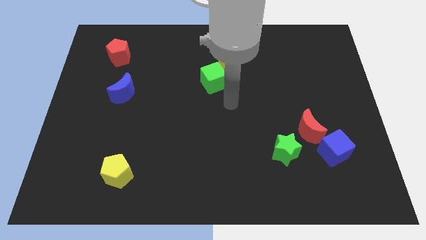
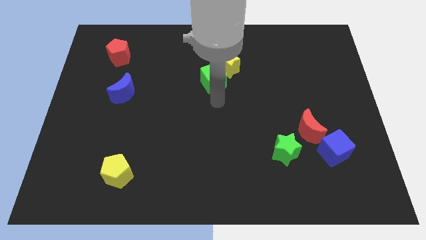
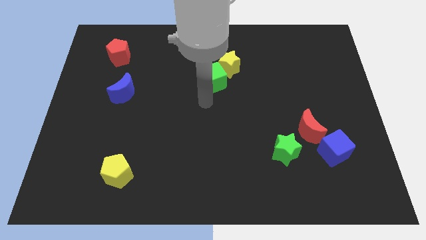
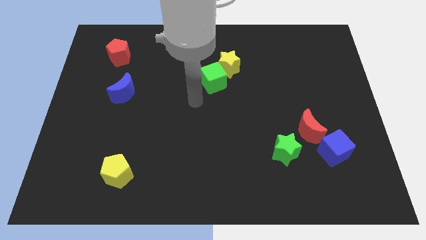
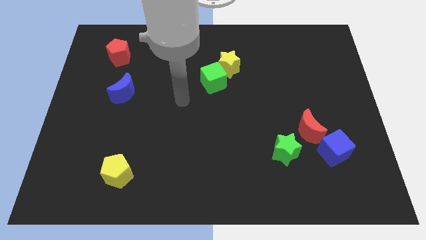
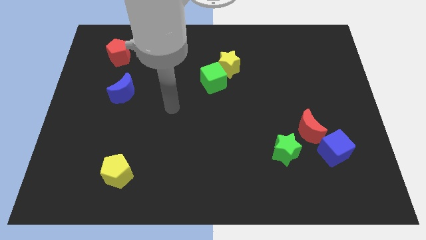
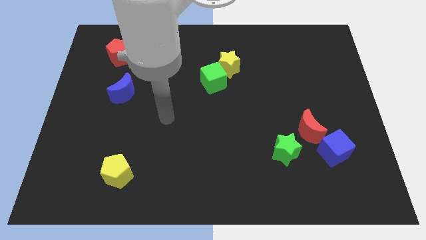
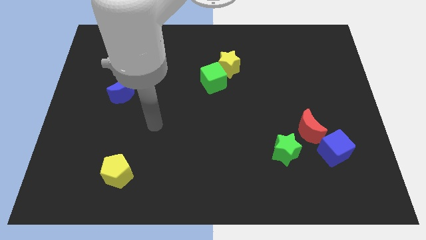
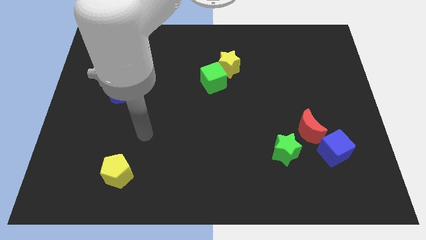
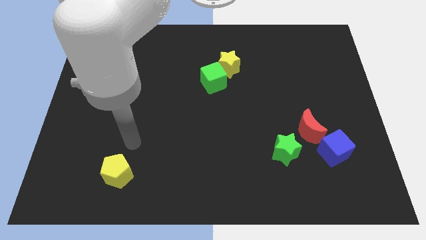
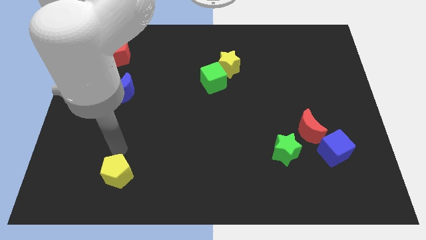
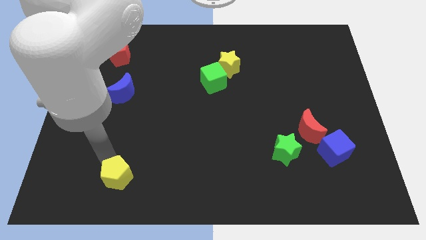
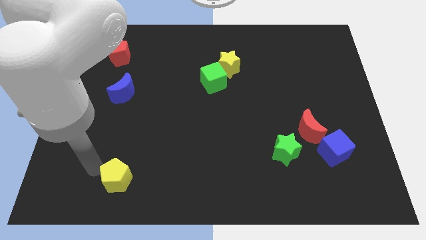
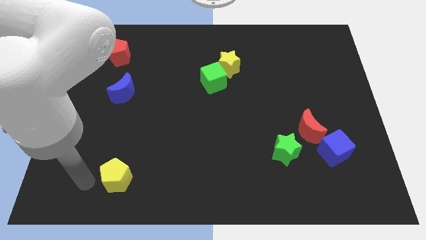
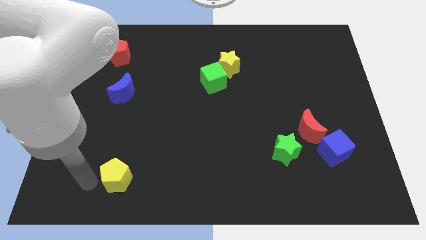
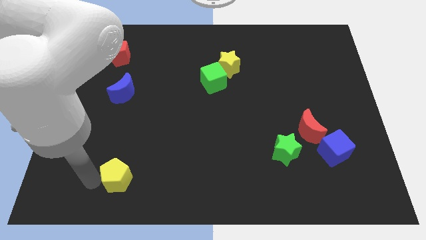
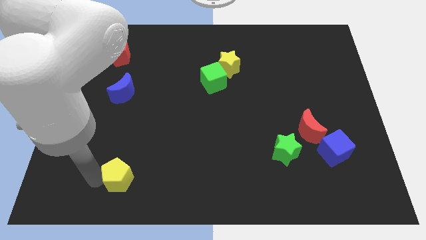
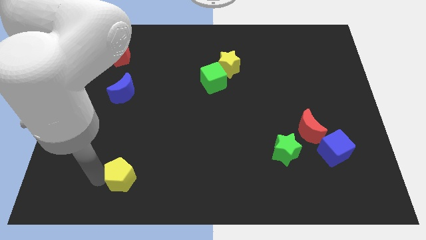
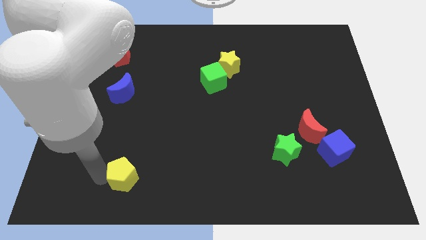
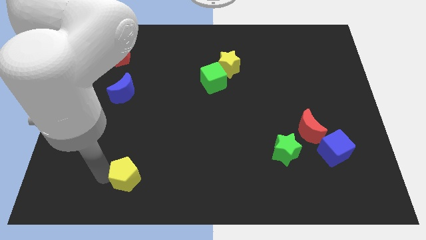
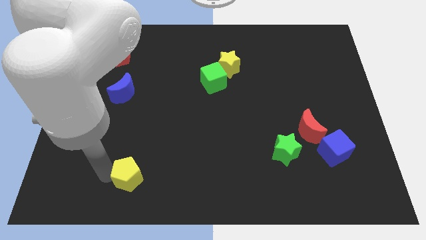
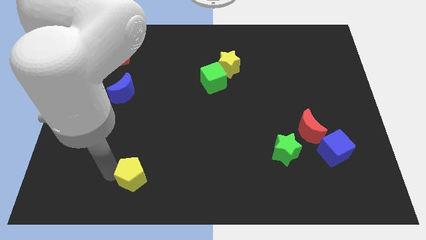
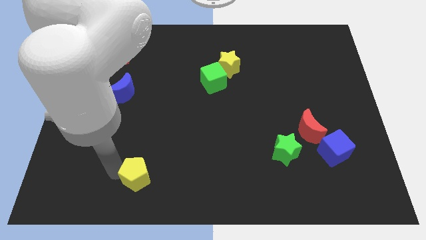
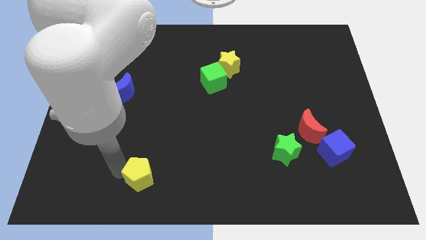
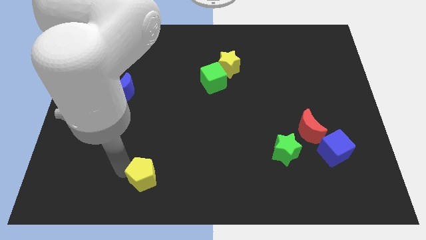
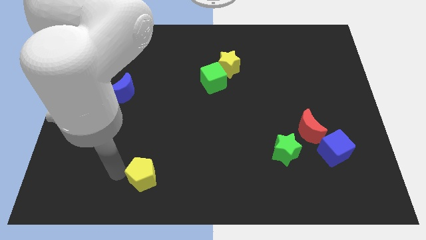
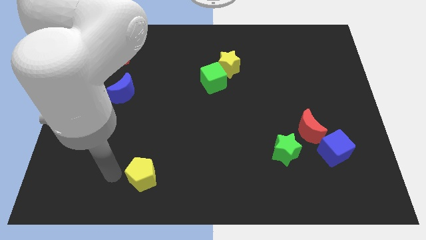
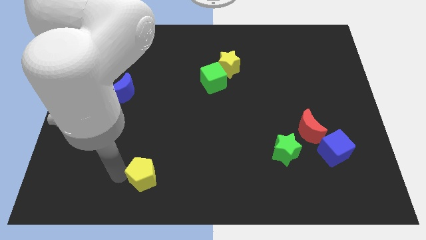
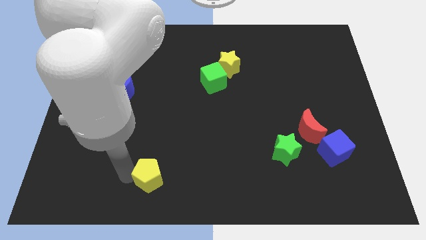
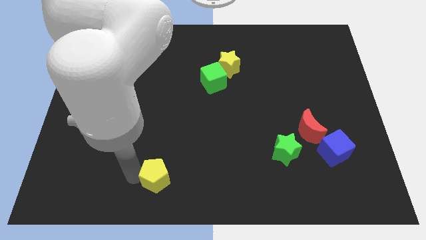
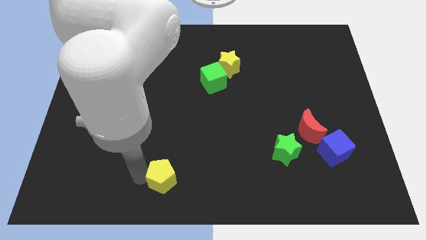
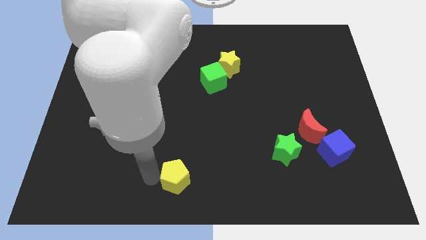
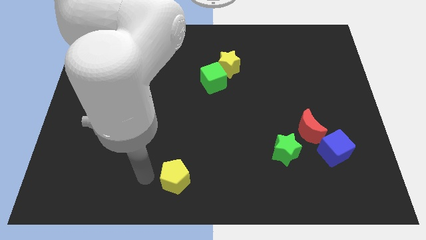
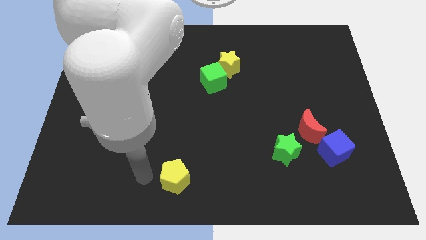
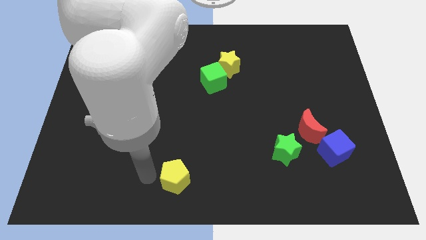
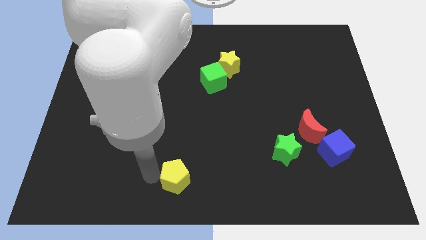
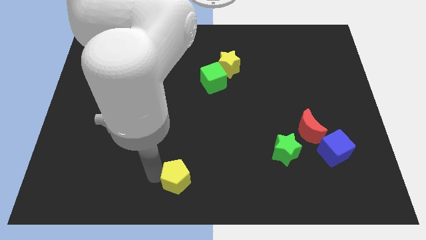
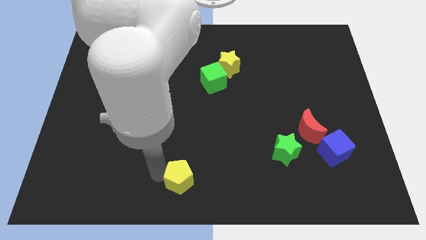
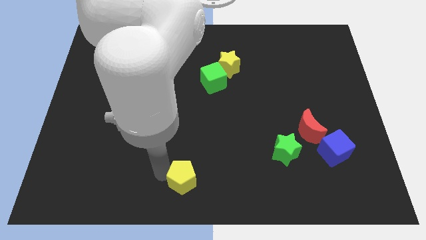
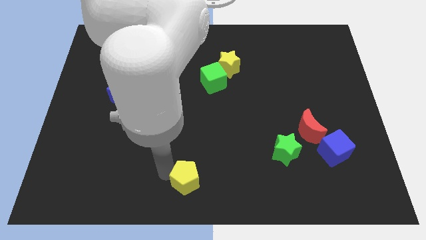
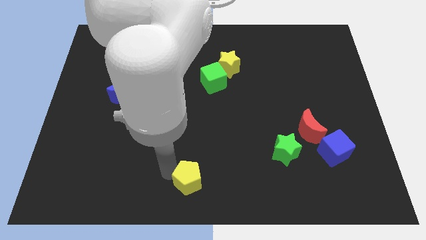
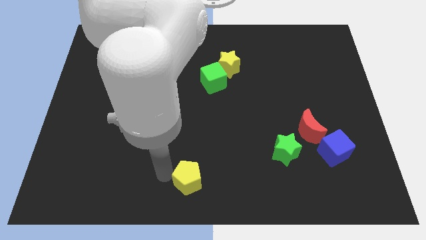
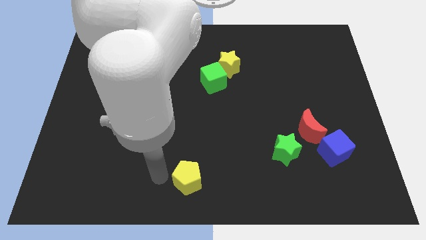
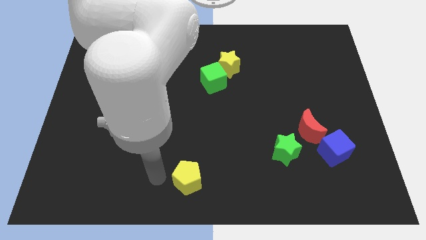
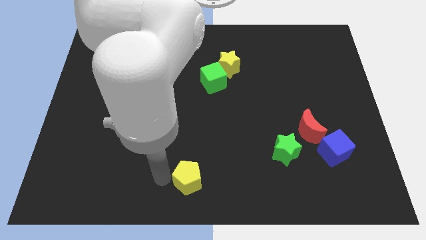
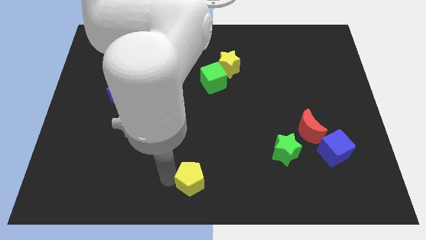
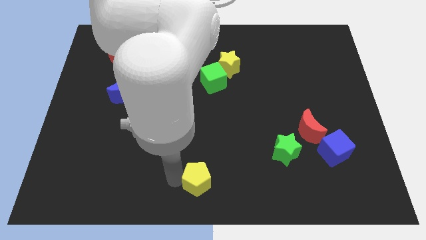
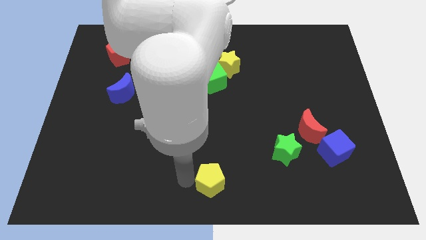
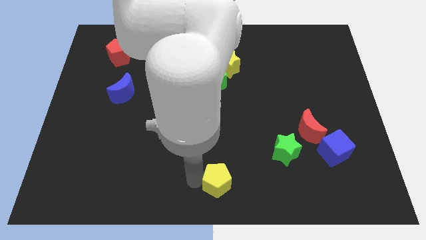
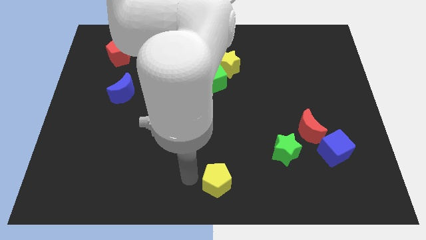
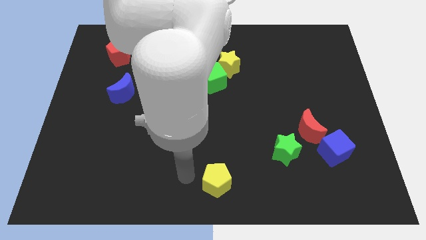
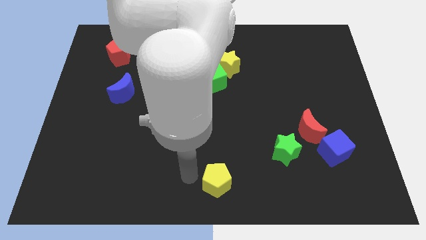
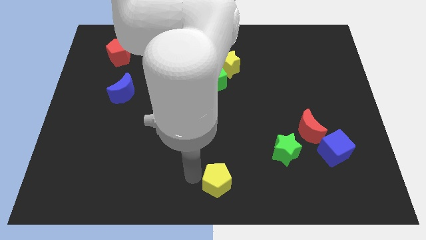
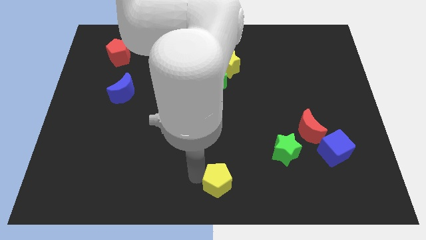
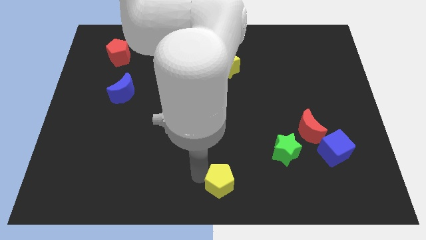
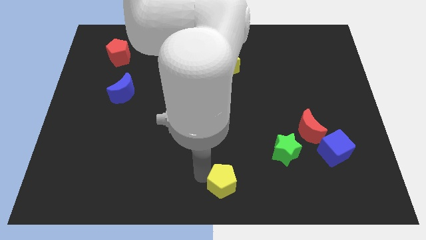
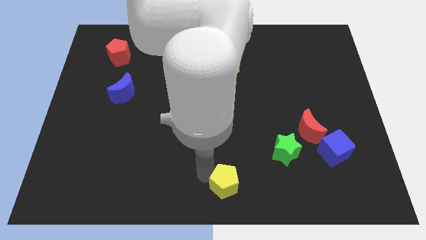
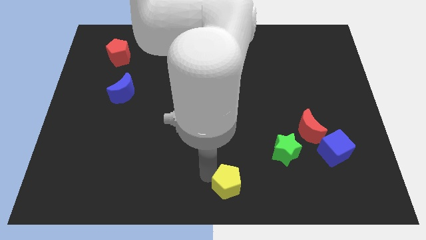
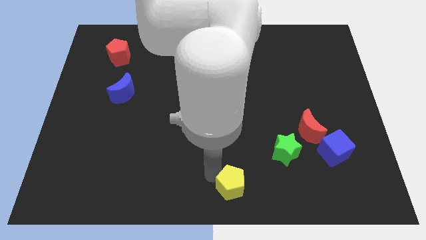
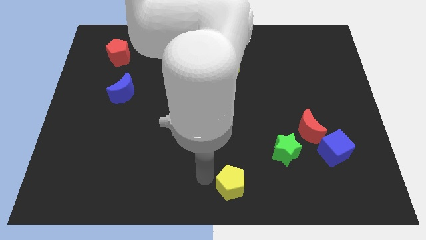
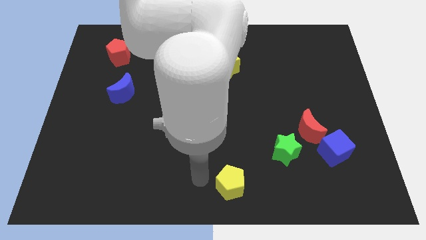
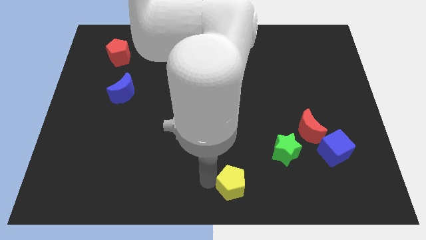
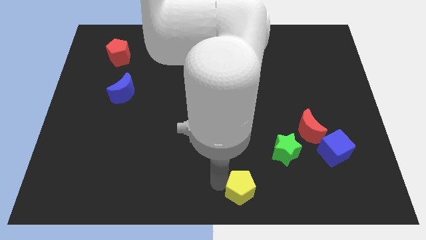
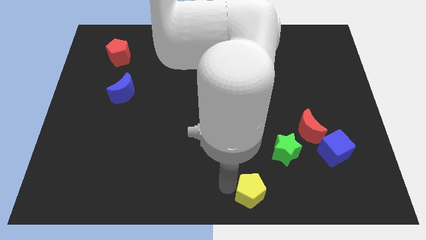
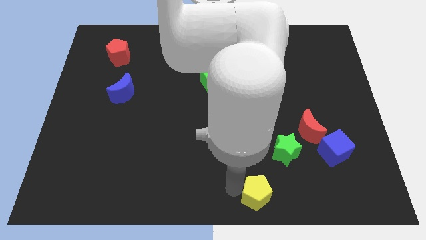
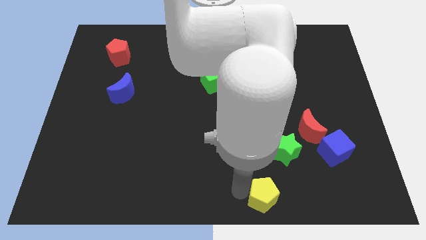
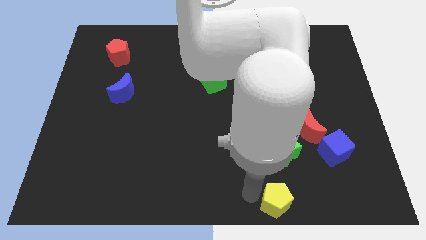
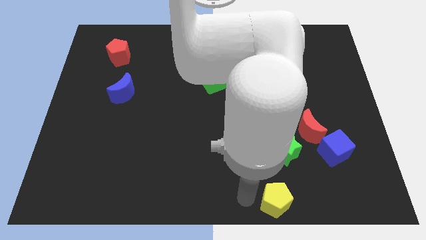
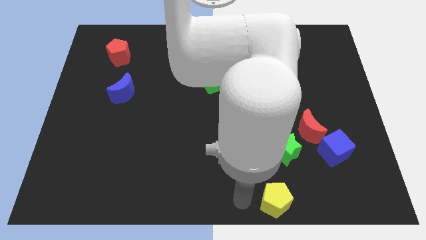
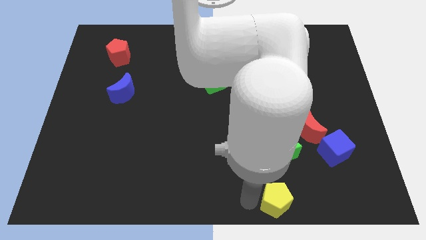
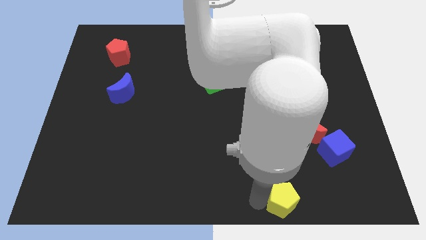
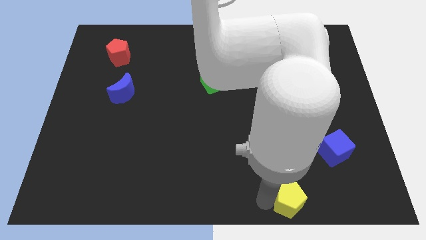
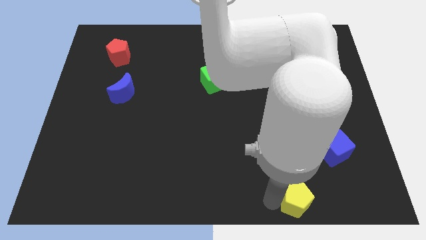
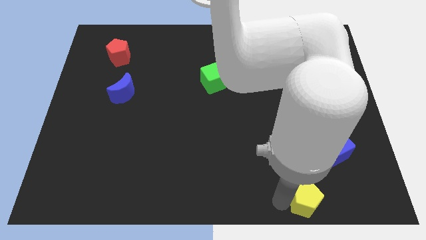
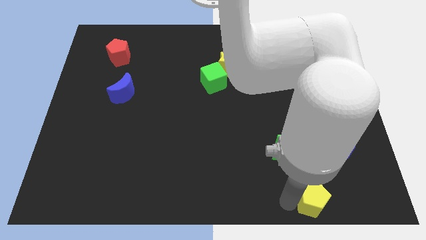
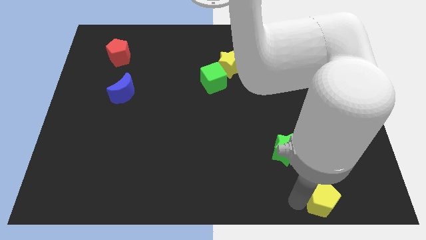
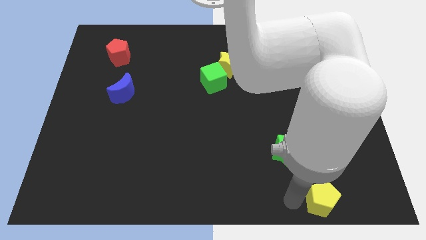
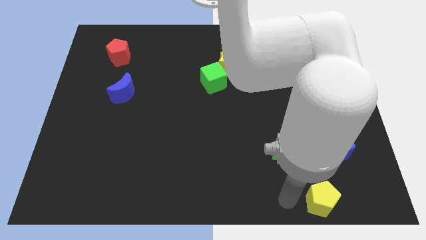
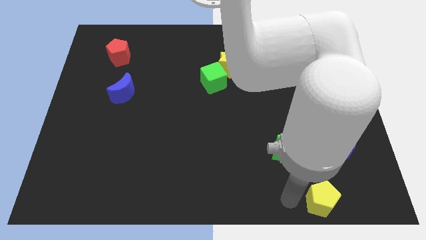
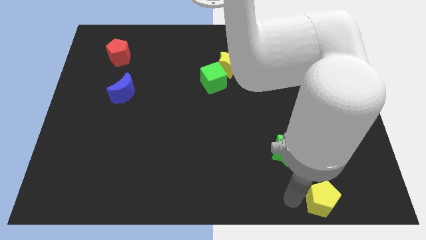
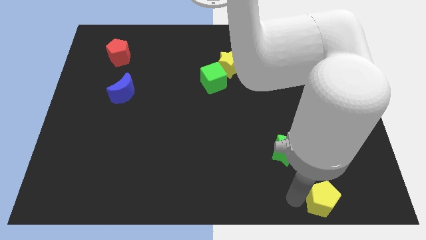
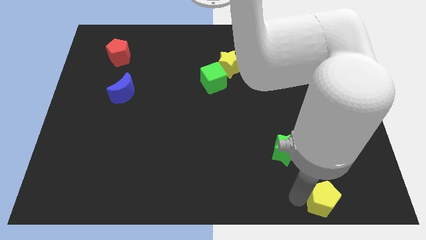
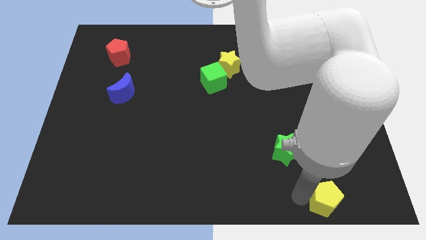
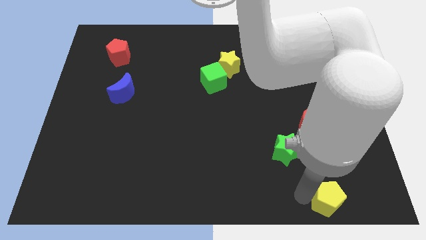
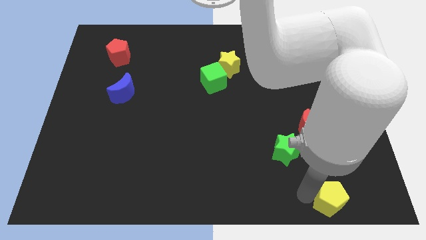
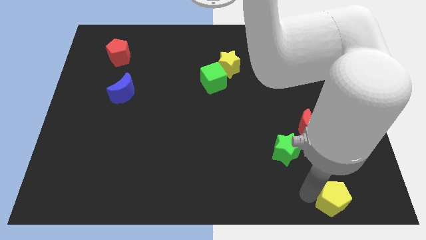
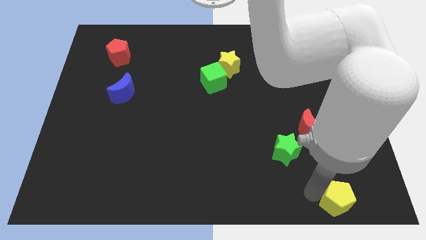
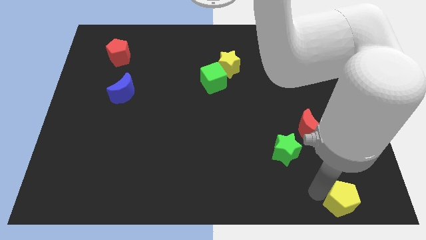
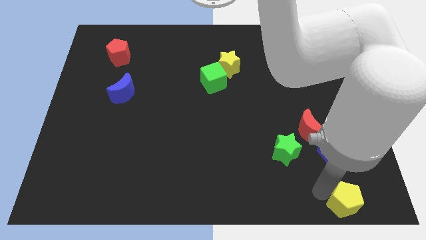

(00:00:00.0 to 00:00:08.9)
put the yellow pentagon to the lower right corner
